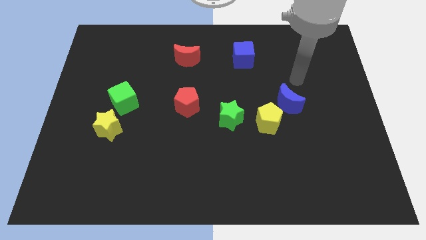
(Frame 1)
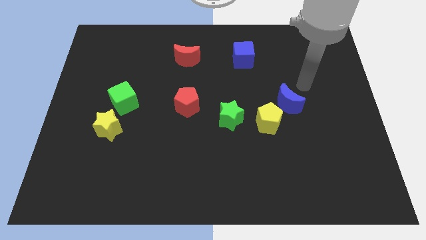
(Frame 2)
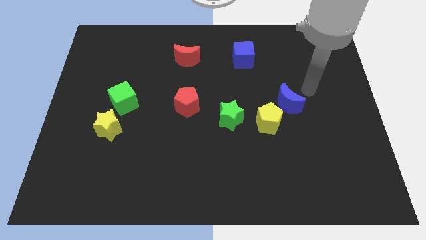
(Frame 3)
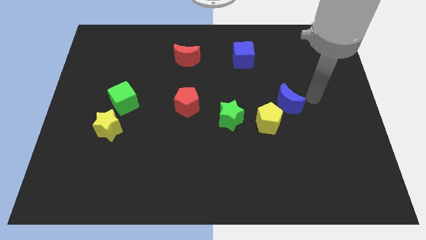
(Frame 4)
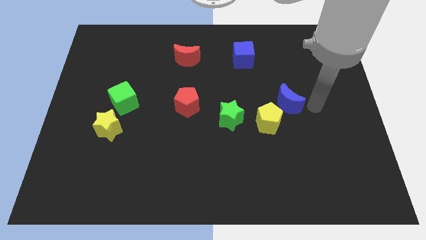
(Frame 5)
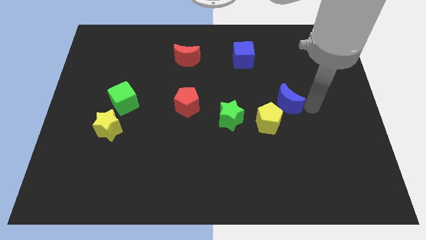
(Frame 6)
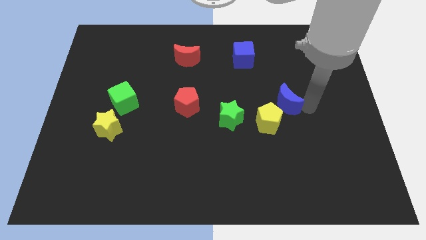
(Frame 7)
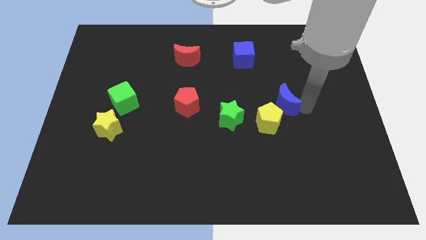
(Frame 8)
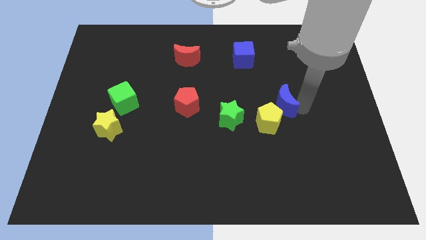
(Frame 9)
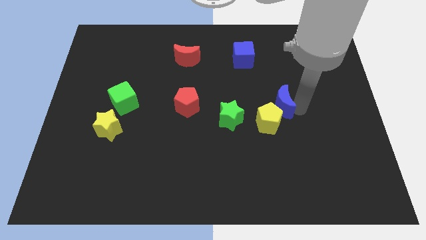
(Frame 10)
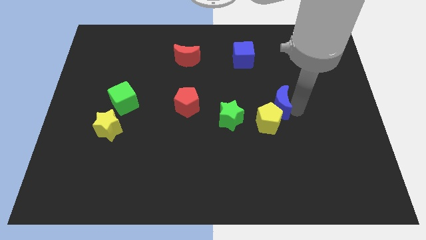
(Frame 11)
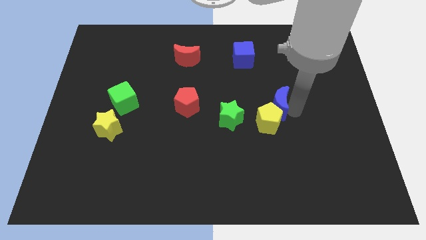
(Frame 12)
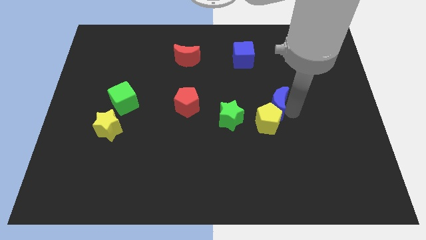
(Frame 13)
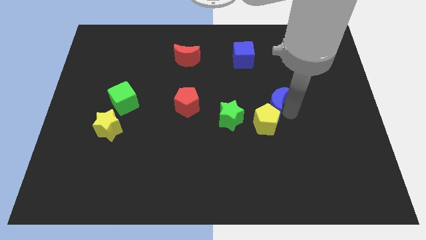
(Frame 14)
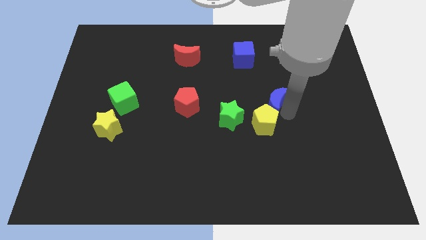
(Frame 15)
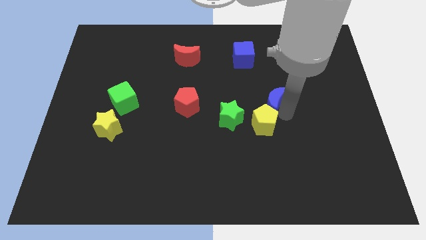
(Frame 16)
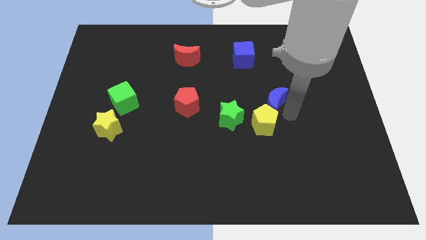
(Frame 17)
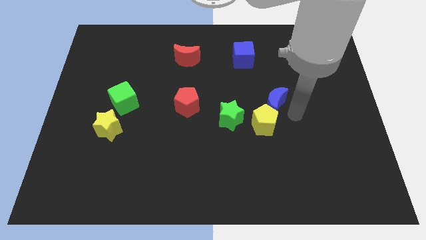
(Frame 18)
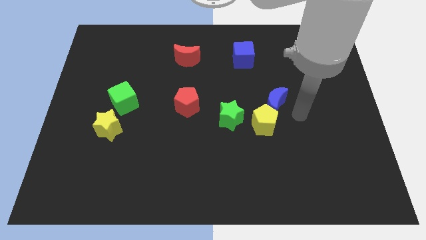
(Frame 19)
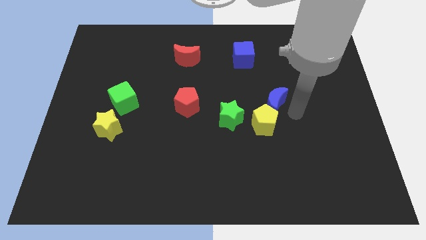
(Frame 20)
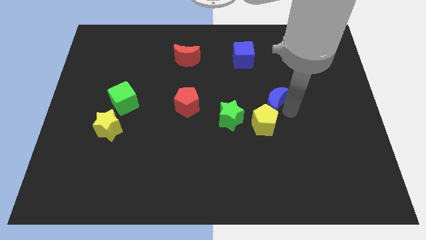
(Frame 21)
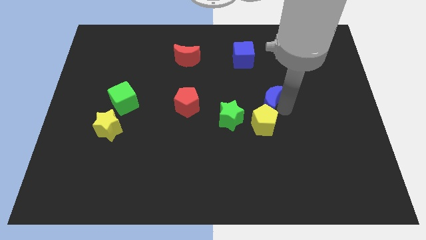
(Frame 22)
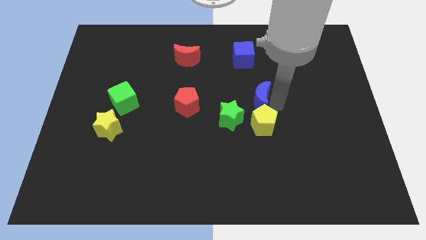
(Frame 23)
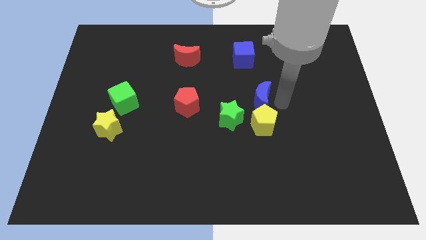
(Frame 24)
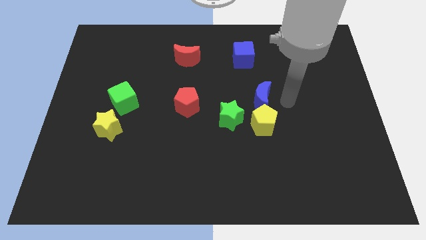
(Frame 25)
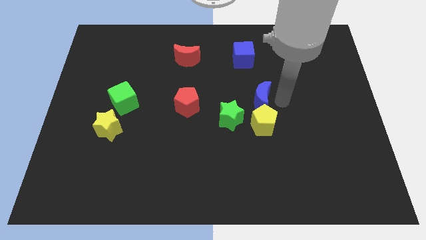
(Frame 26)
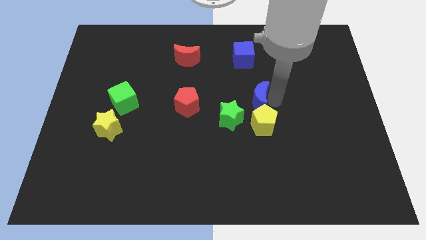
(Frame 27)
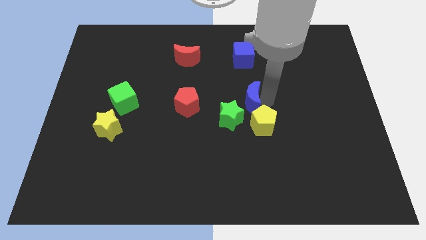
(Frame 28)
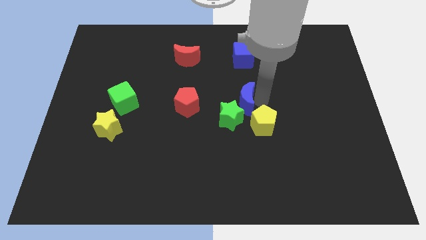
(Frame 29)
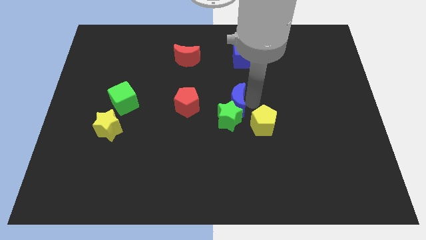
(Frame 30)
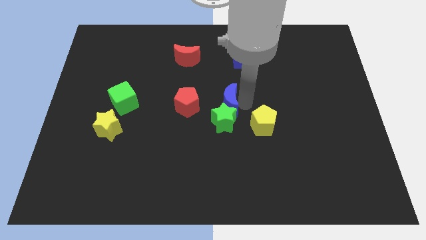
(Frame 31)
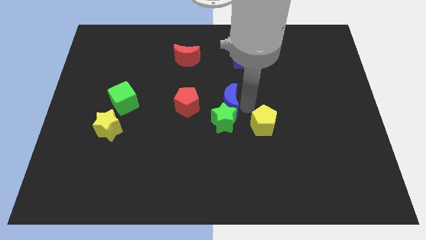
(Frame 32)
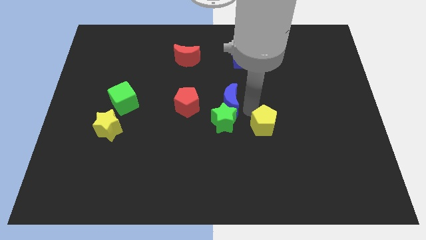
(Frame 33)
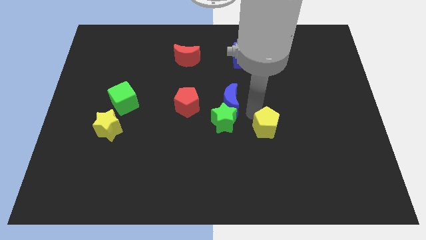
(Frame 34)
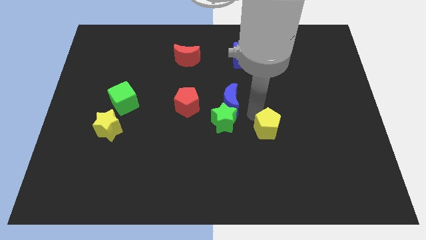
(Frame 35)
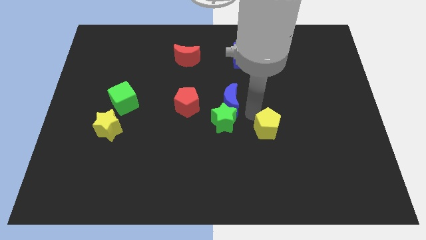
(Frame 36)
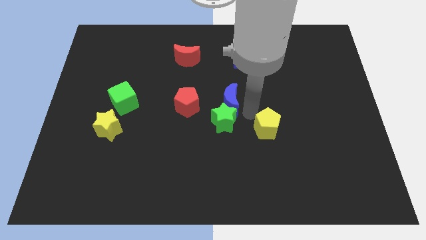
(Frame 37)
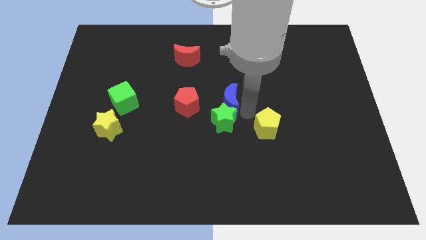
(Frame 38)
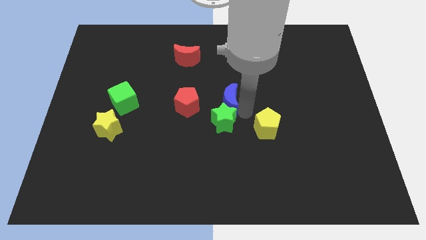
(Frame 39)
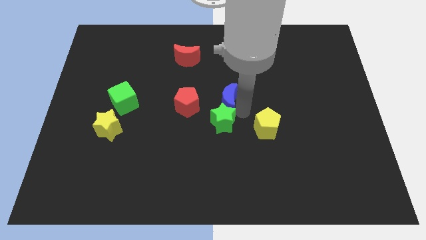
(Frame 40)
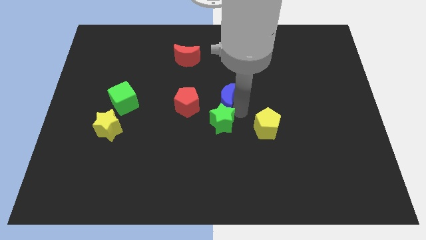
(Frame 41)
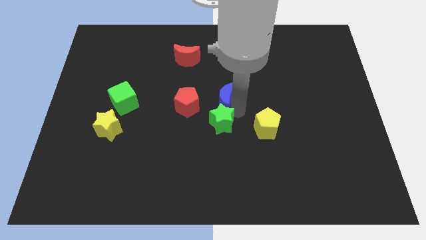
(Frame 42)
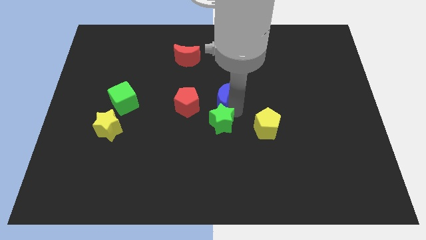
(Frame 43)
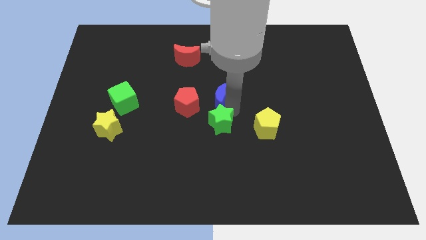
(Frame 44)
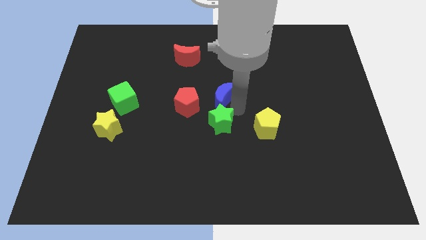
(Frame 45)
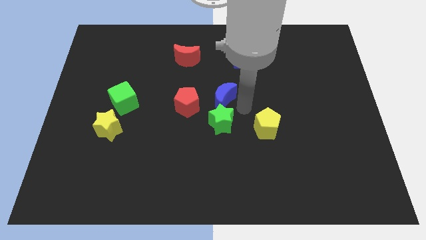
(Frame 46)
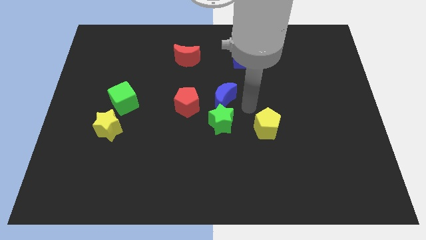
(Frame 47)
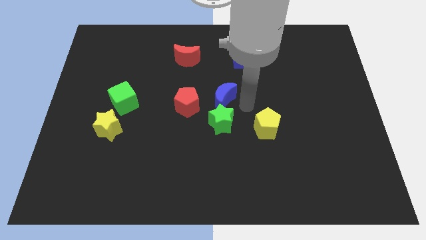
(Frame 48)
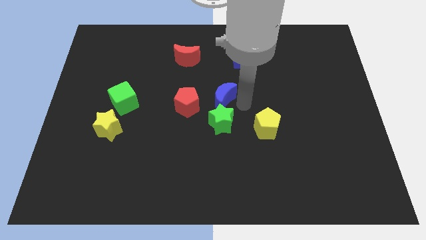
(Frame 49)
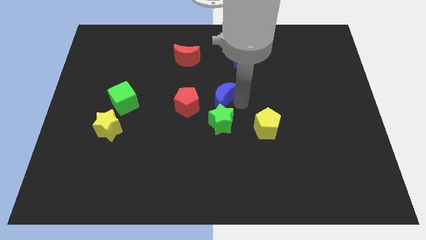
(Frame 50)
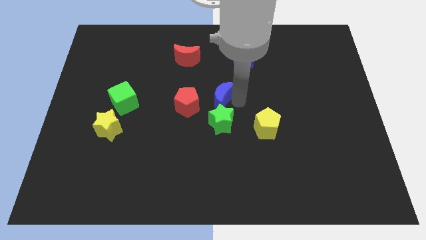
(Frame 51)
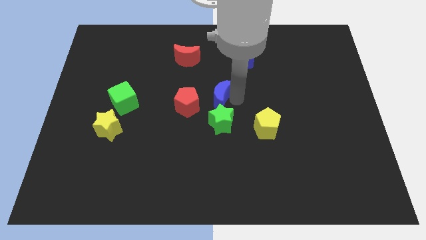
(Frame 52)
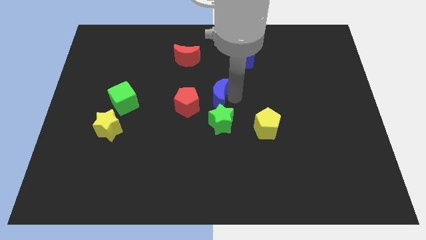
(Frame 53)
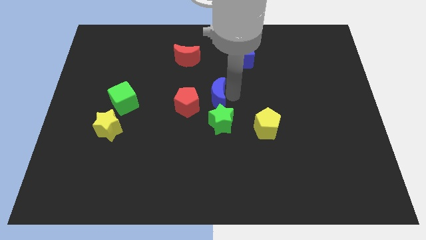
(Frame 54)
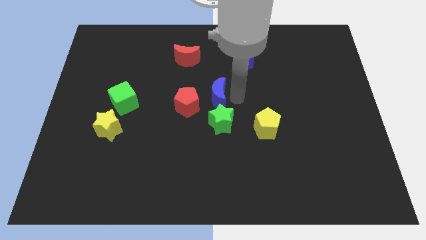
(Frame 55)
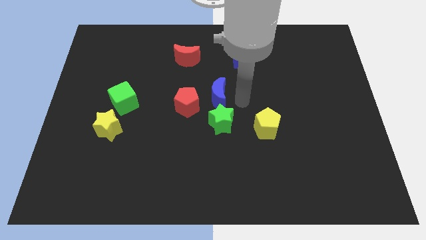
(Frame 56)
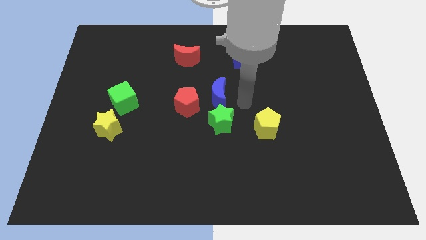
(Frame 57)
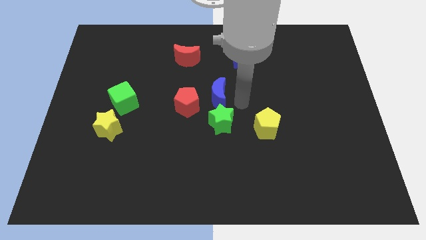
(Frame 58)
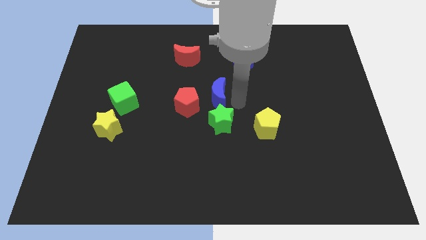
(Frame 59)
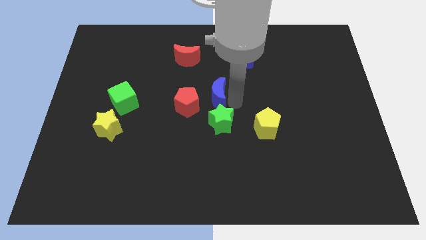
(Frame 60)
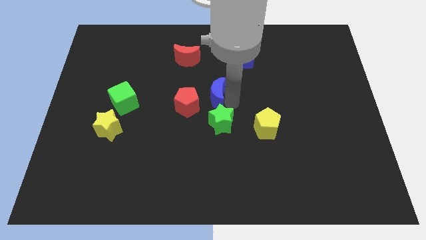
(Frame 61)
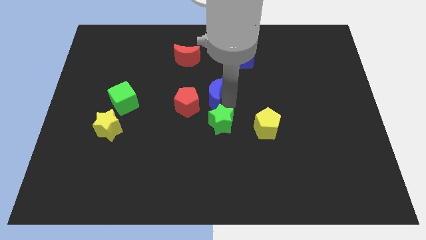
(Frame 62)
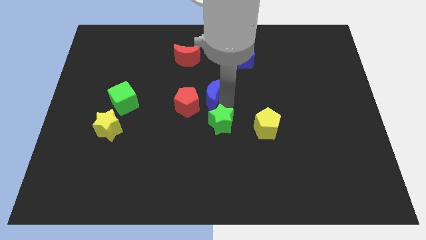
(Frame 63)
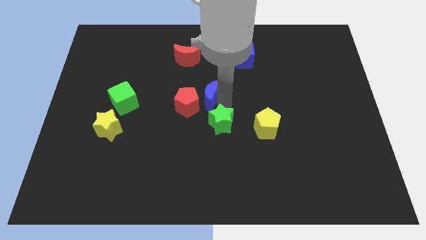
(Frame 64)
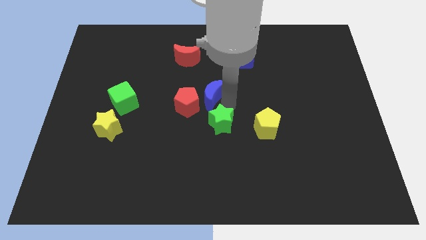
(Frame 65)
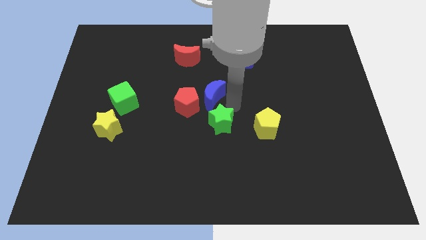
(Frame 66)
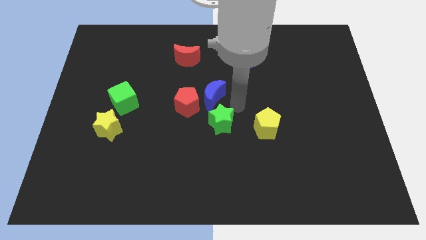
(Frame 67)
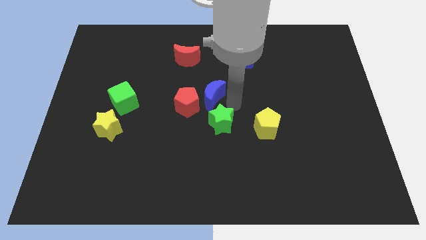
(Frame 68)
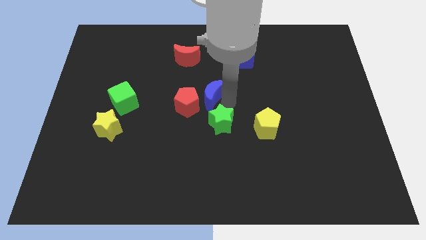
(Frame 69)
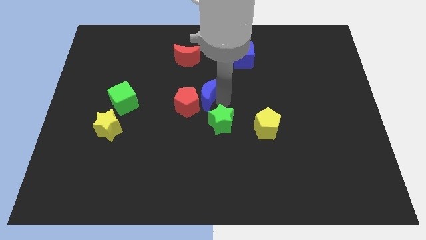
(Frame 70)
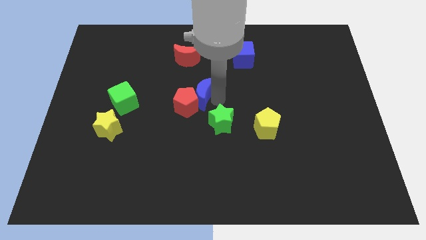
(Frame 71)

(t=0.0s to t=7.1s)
move the blue moon left

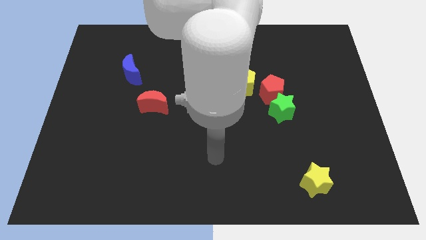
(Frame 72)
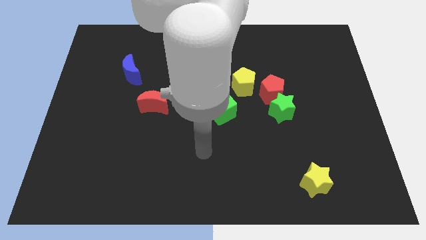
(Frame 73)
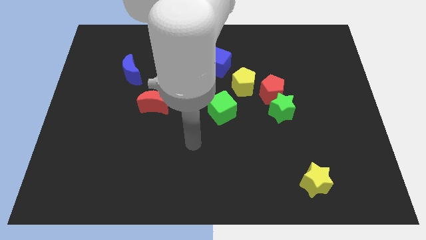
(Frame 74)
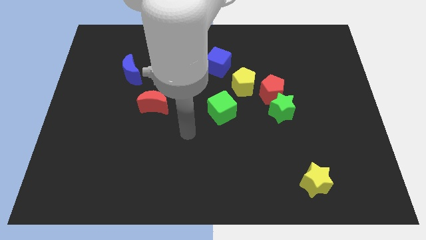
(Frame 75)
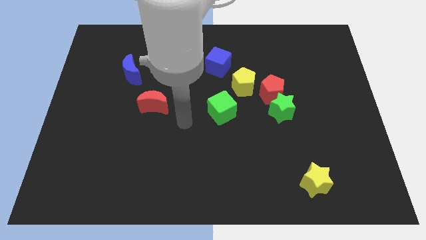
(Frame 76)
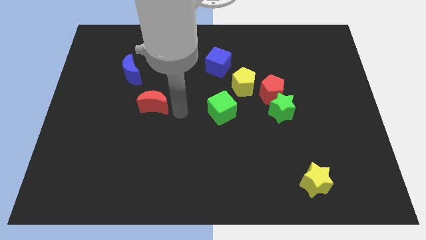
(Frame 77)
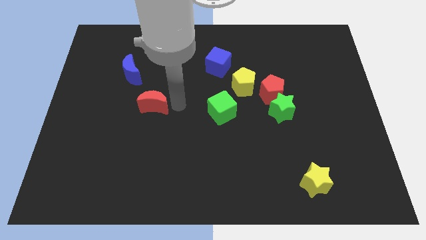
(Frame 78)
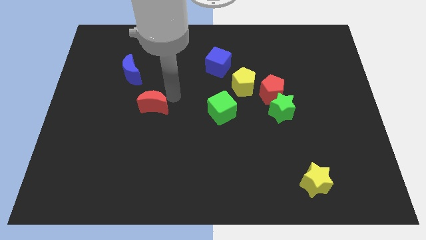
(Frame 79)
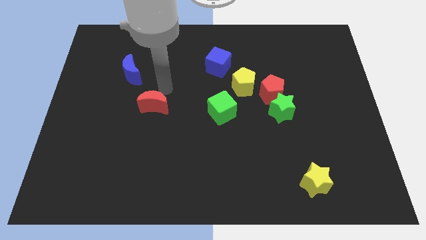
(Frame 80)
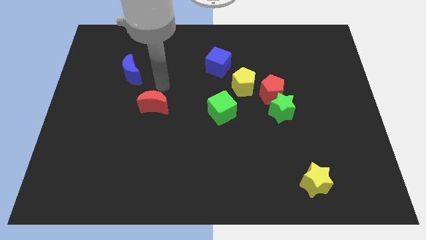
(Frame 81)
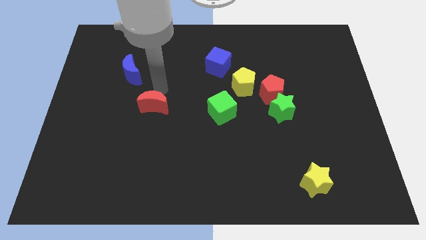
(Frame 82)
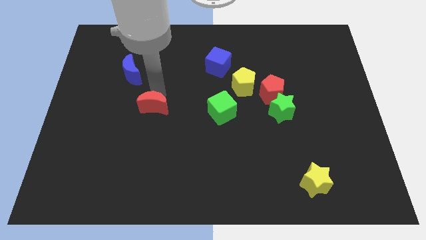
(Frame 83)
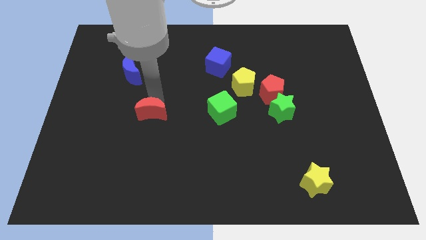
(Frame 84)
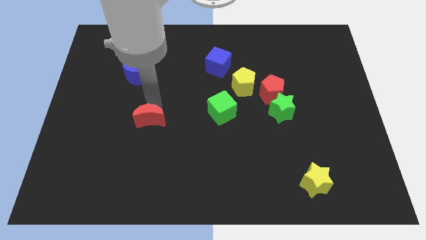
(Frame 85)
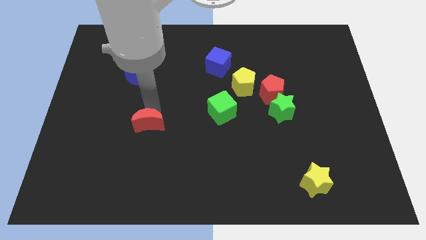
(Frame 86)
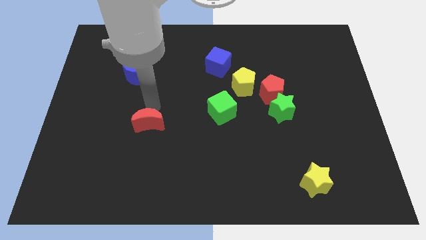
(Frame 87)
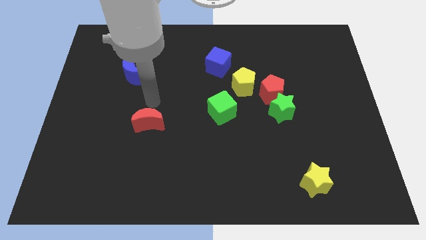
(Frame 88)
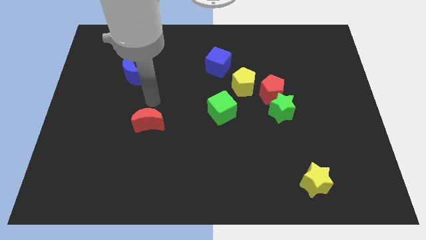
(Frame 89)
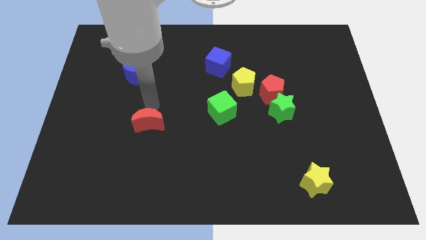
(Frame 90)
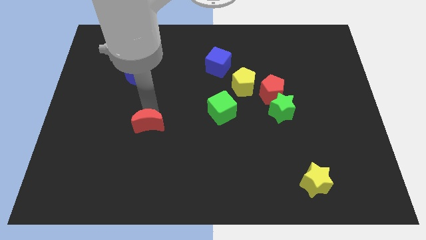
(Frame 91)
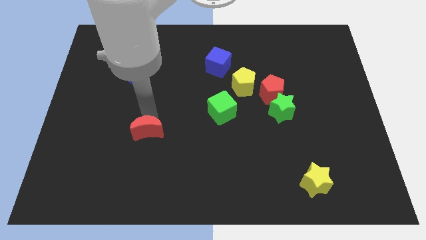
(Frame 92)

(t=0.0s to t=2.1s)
slide the red moon down a little bit
